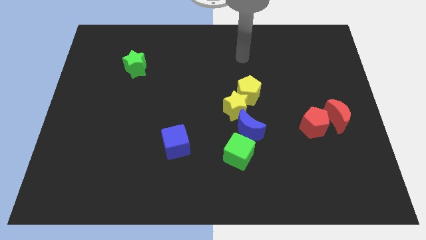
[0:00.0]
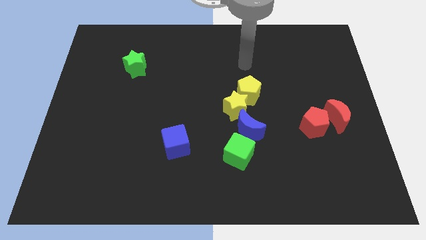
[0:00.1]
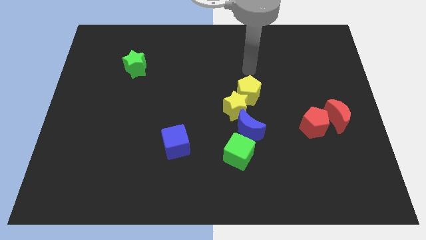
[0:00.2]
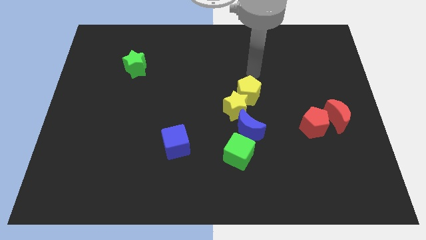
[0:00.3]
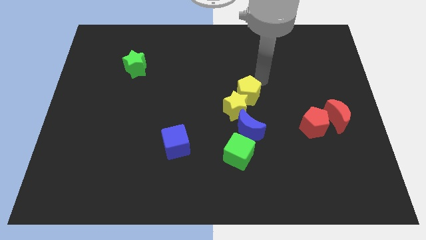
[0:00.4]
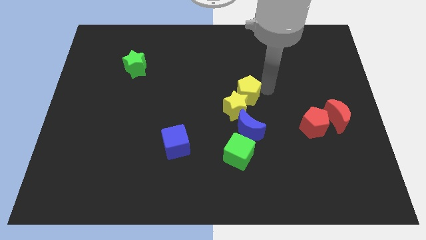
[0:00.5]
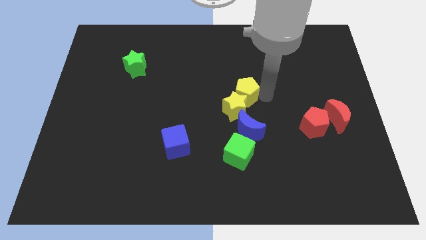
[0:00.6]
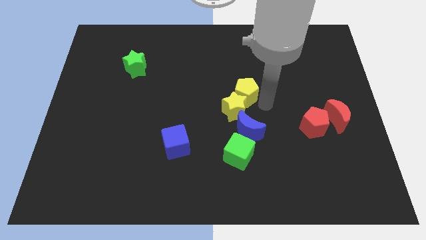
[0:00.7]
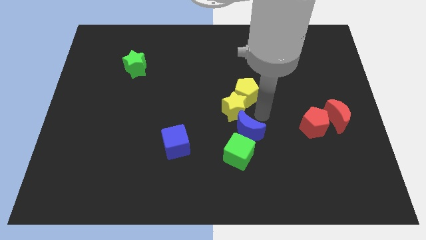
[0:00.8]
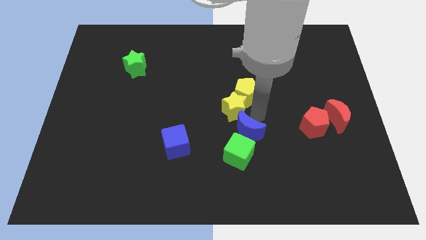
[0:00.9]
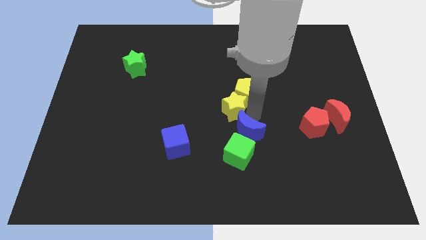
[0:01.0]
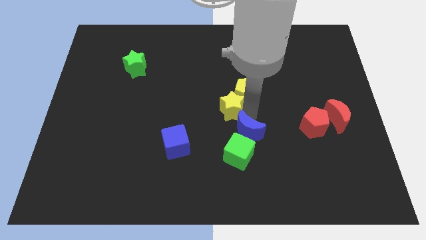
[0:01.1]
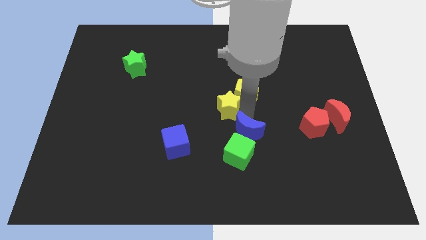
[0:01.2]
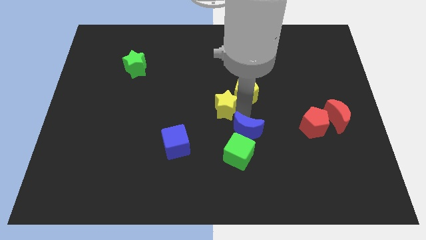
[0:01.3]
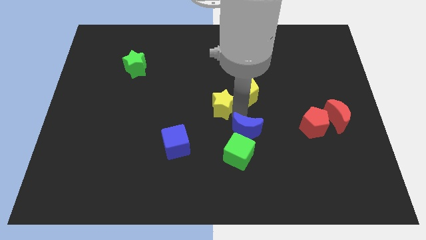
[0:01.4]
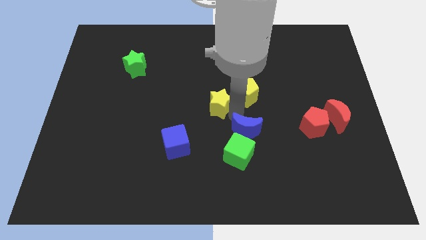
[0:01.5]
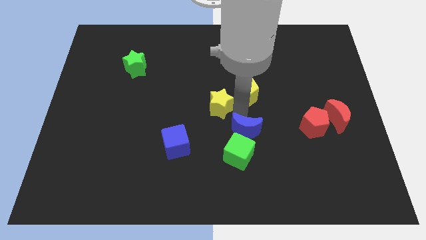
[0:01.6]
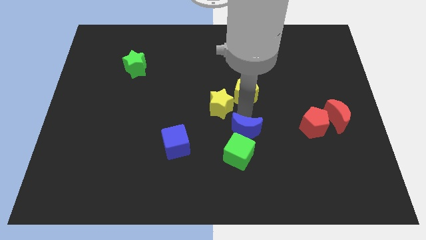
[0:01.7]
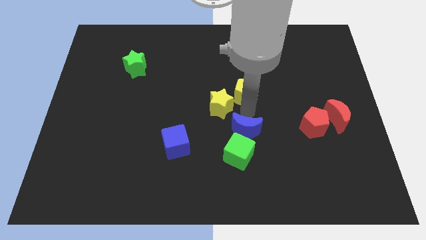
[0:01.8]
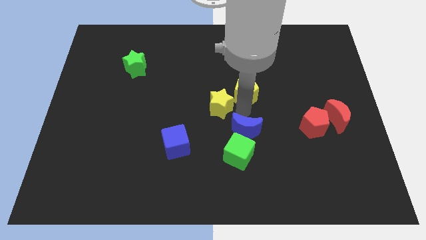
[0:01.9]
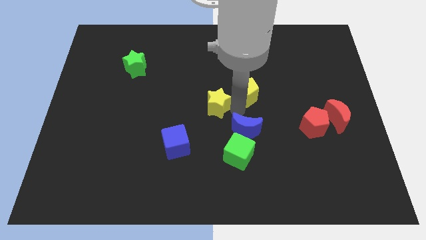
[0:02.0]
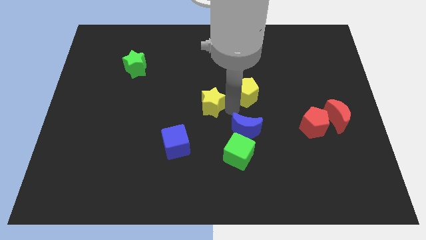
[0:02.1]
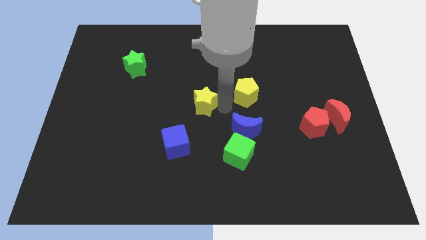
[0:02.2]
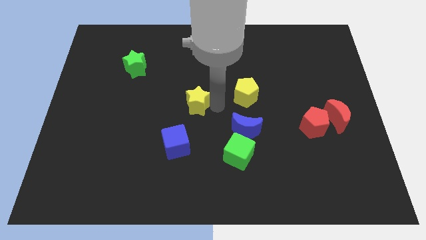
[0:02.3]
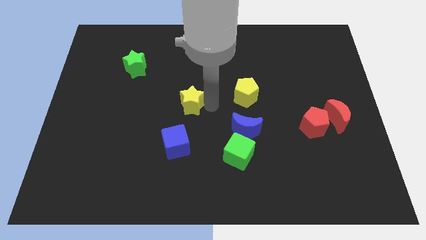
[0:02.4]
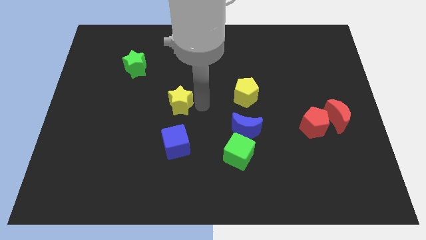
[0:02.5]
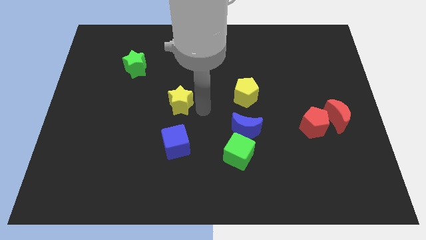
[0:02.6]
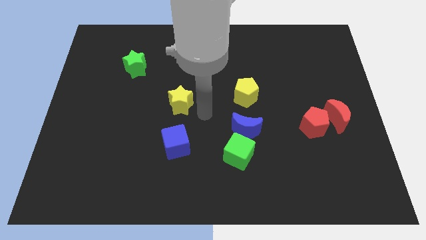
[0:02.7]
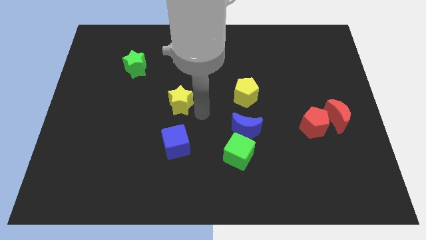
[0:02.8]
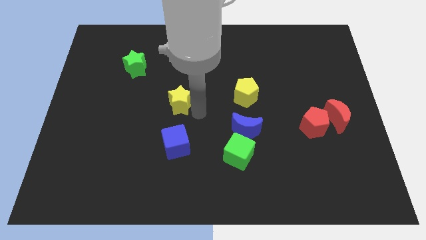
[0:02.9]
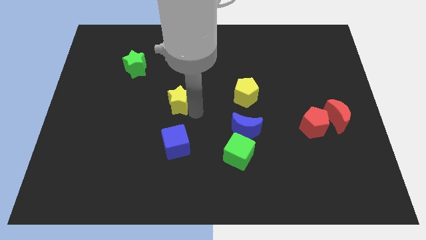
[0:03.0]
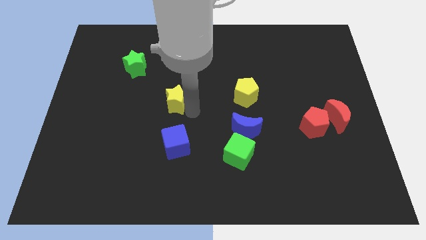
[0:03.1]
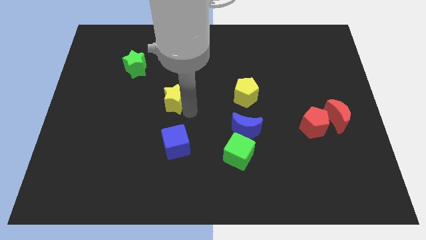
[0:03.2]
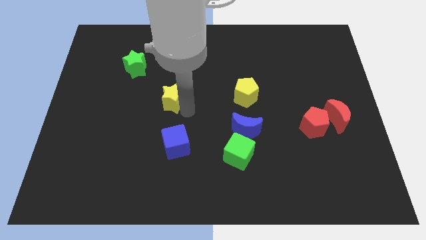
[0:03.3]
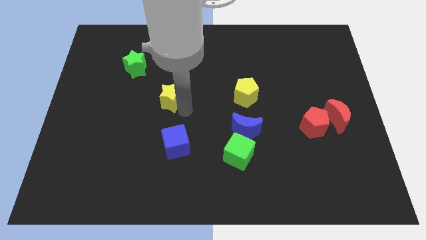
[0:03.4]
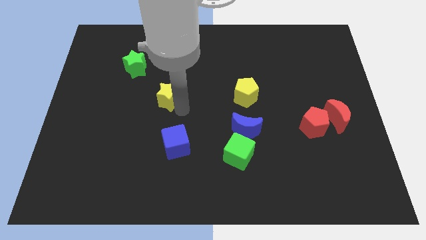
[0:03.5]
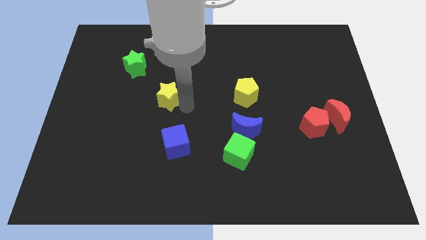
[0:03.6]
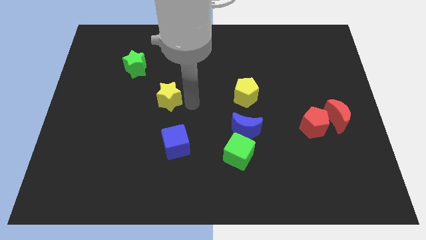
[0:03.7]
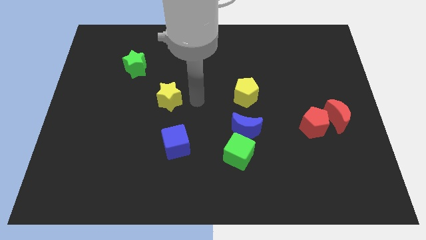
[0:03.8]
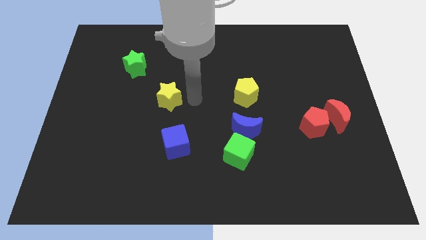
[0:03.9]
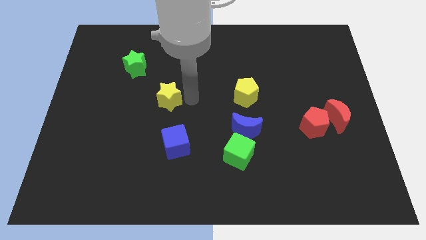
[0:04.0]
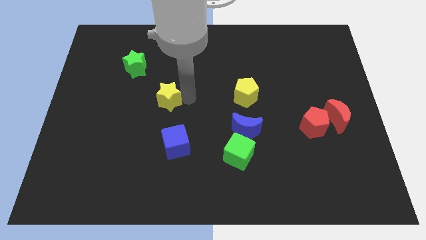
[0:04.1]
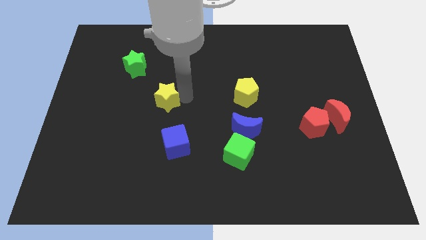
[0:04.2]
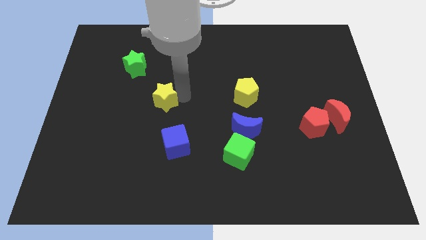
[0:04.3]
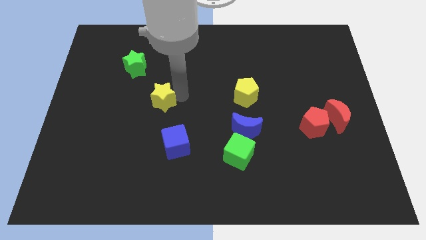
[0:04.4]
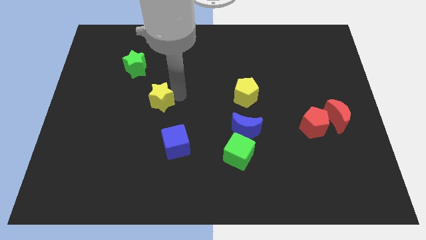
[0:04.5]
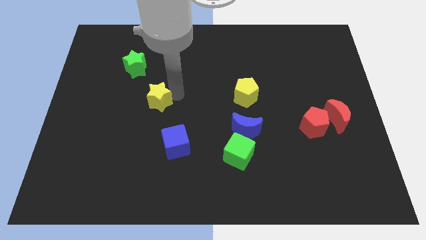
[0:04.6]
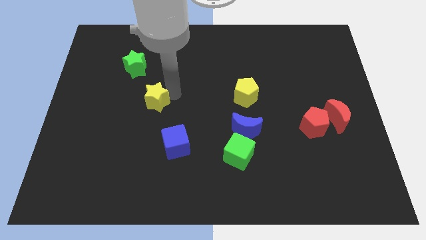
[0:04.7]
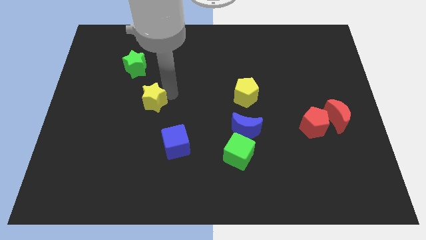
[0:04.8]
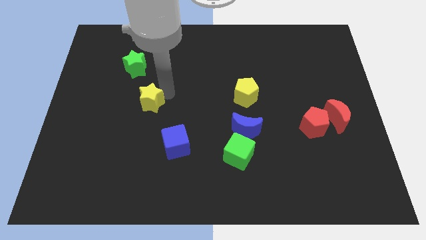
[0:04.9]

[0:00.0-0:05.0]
push the yellow star to the bottom side of the green star

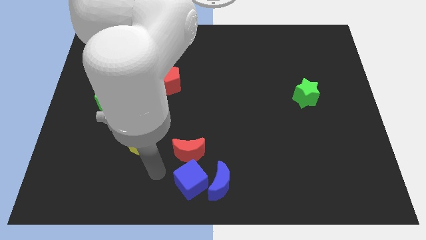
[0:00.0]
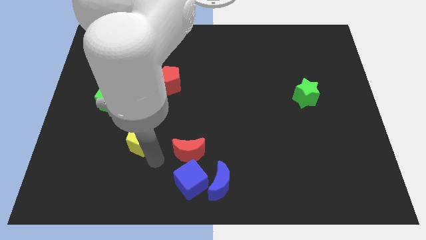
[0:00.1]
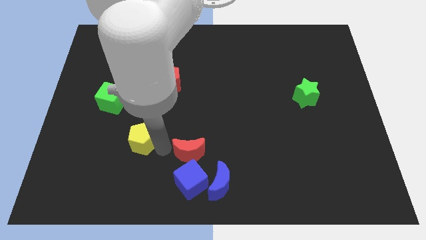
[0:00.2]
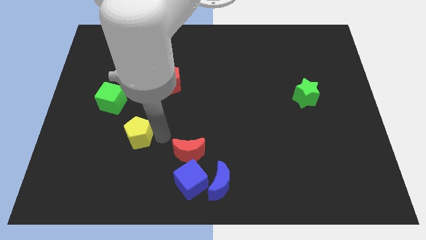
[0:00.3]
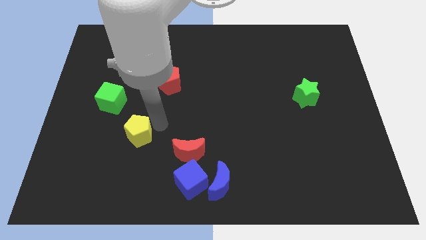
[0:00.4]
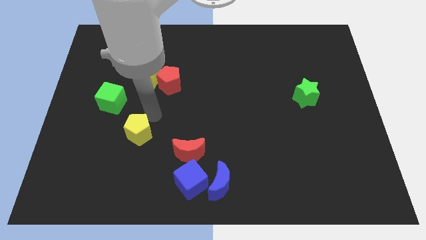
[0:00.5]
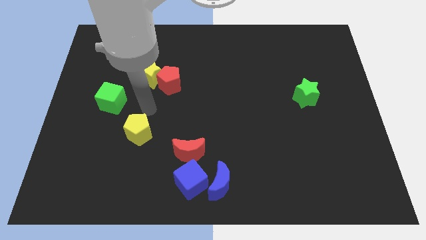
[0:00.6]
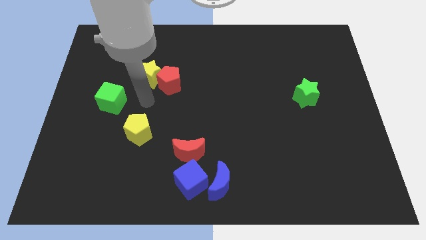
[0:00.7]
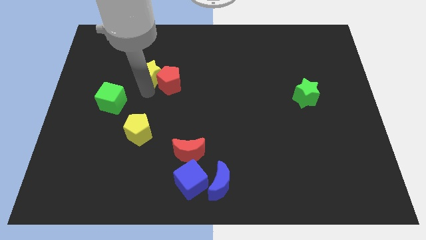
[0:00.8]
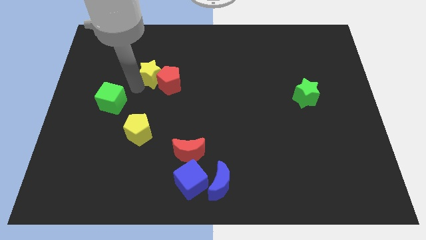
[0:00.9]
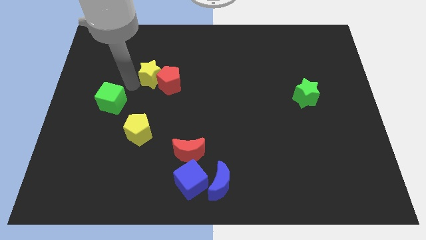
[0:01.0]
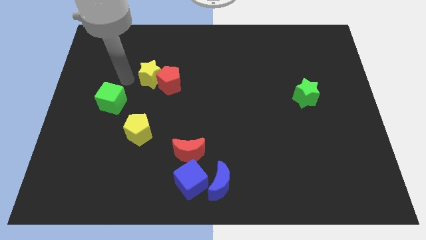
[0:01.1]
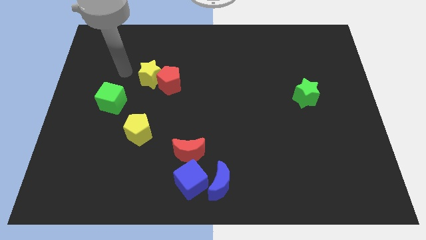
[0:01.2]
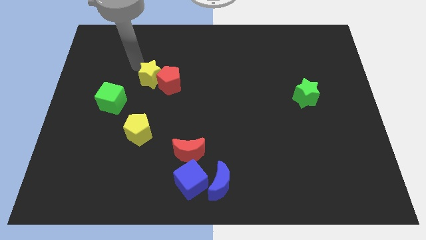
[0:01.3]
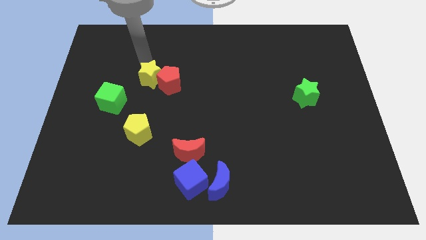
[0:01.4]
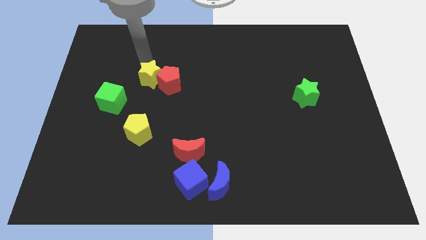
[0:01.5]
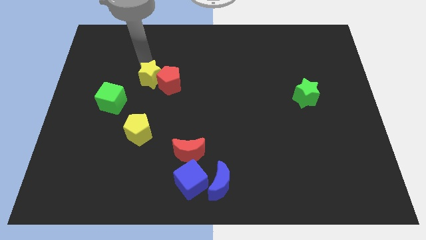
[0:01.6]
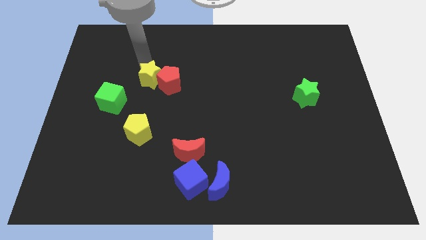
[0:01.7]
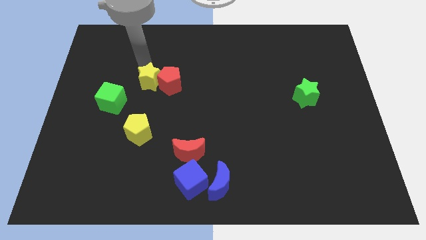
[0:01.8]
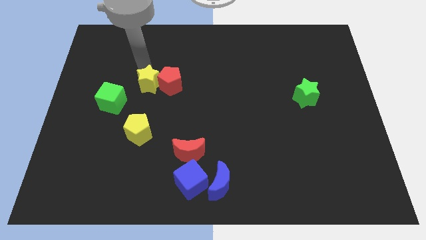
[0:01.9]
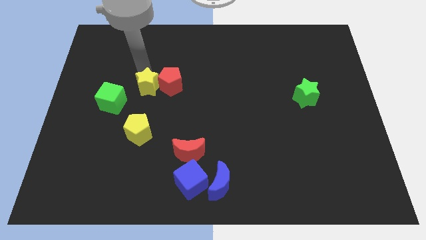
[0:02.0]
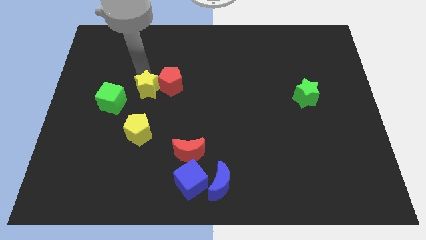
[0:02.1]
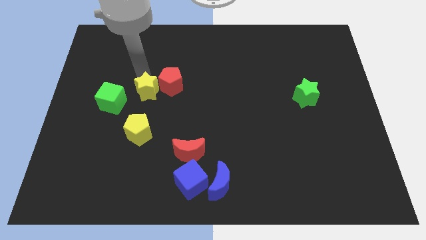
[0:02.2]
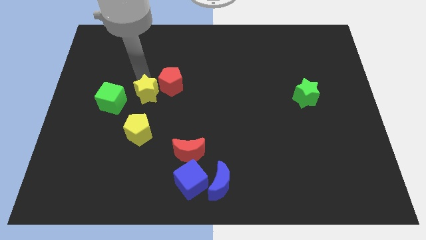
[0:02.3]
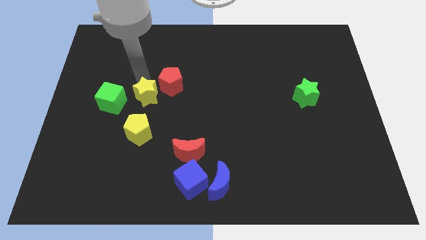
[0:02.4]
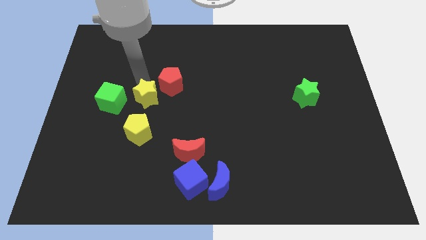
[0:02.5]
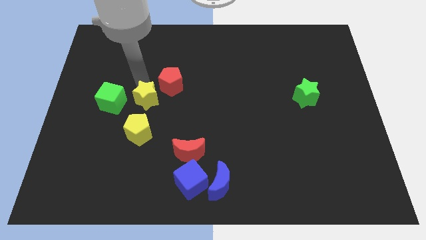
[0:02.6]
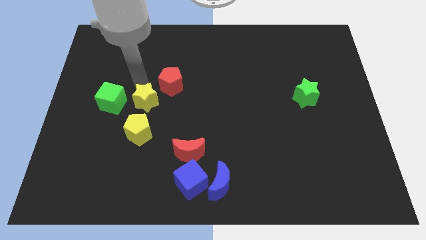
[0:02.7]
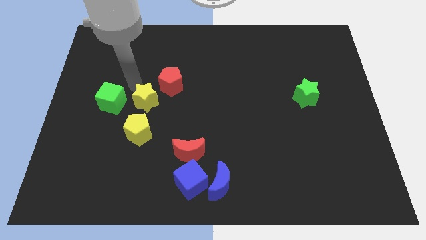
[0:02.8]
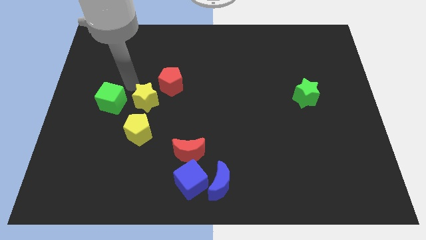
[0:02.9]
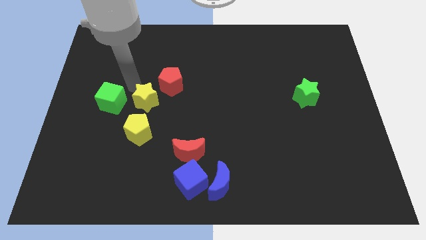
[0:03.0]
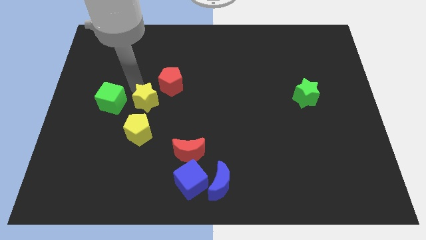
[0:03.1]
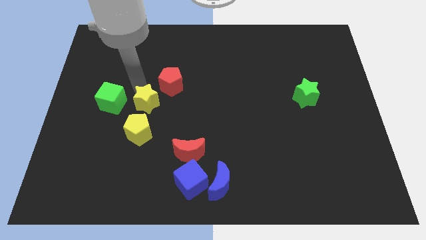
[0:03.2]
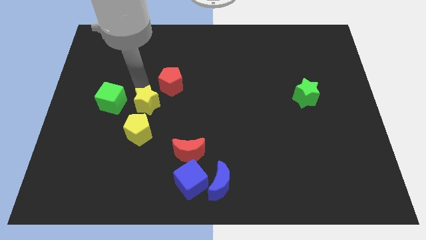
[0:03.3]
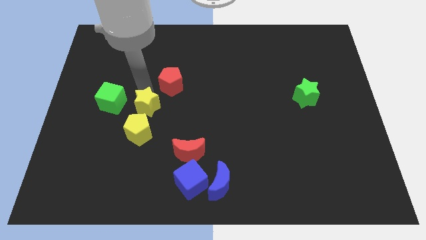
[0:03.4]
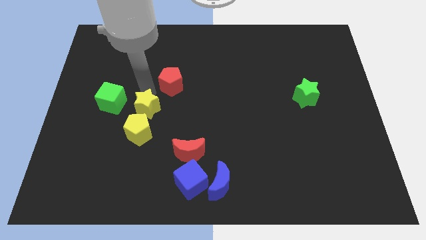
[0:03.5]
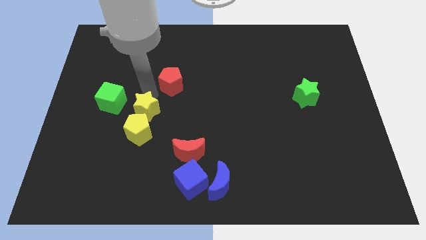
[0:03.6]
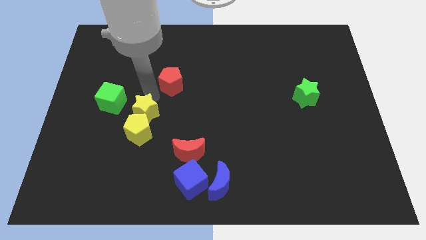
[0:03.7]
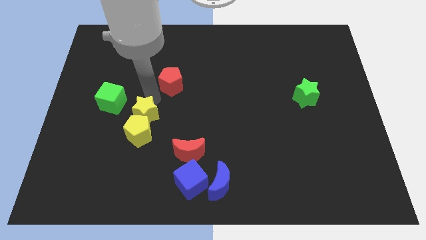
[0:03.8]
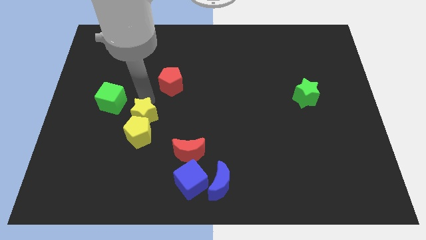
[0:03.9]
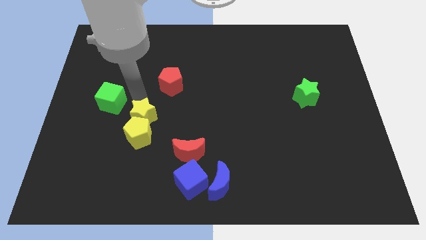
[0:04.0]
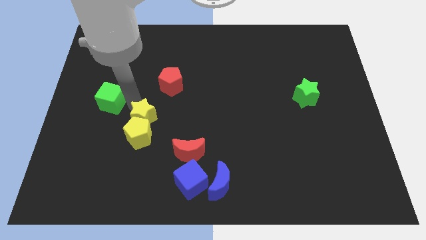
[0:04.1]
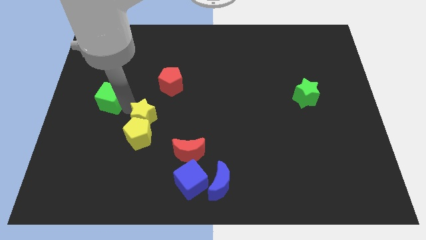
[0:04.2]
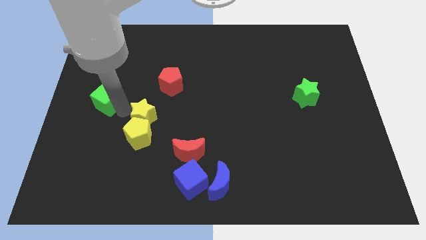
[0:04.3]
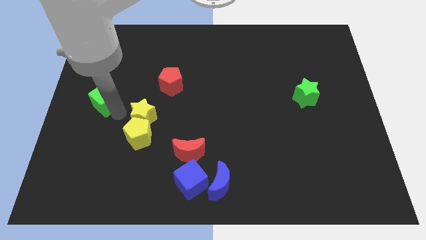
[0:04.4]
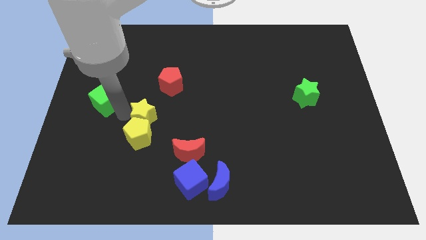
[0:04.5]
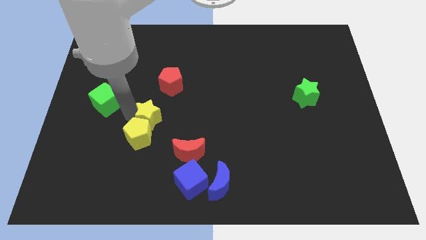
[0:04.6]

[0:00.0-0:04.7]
put the yellow star to the bottom side of the red pentagon
